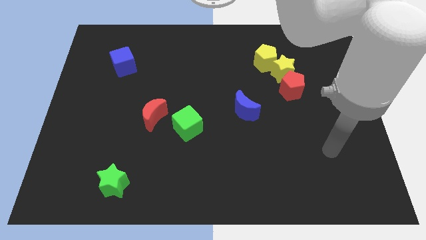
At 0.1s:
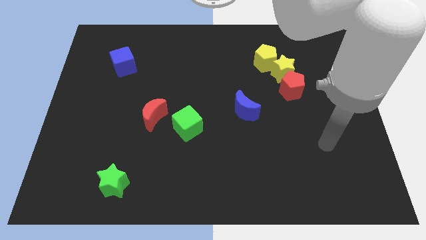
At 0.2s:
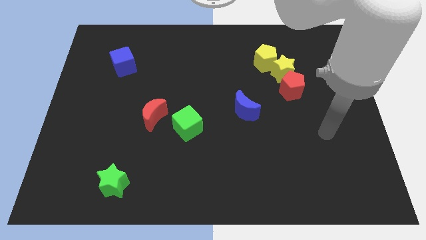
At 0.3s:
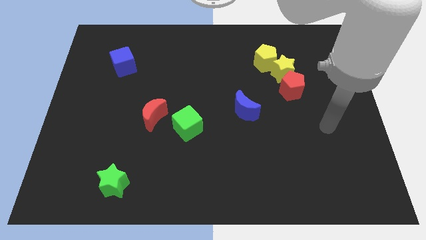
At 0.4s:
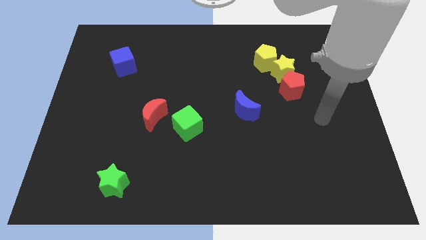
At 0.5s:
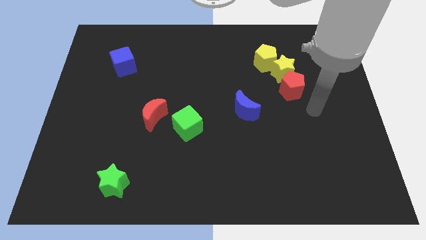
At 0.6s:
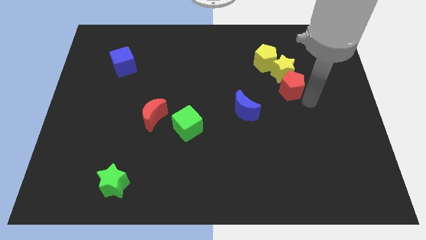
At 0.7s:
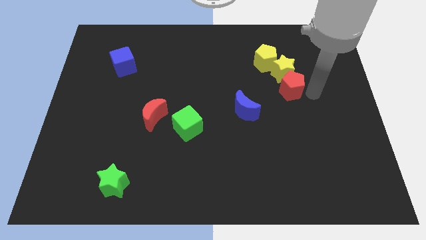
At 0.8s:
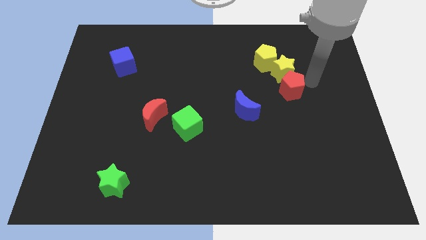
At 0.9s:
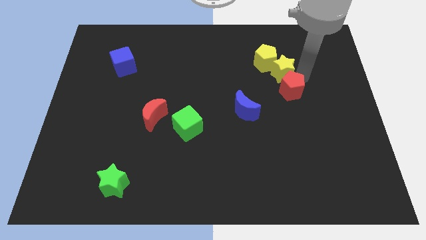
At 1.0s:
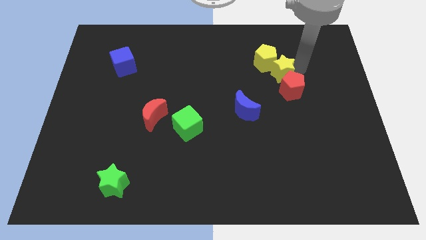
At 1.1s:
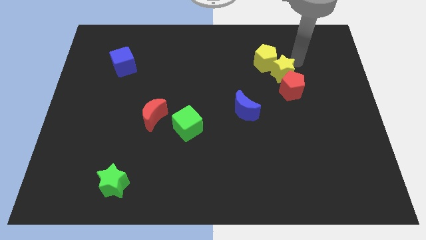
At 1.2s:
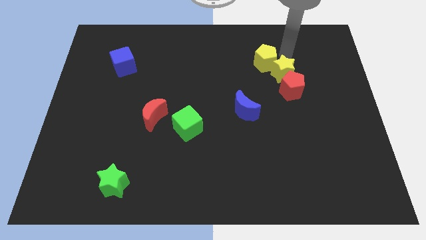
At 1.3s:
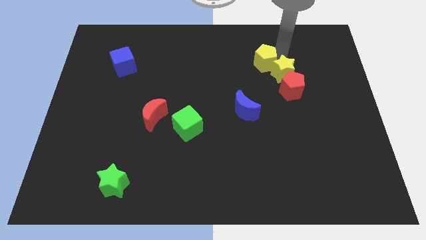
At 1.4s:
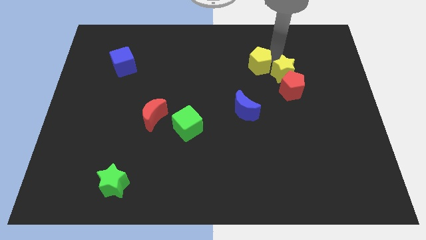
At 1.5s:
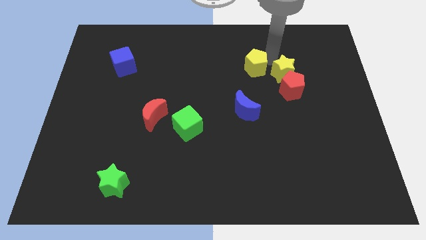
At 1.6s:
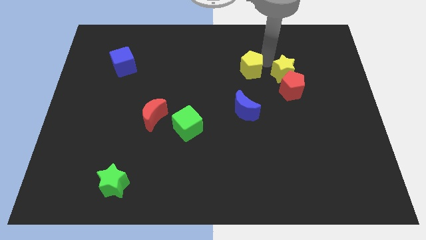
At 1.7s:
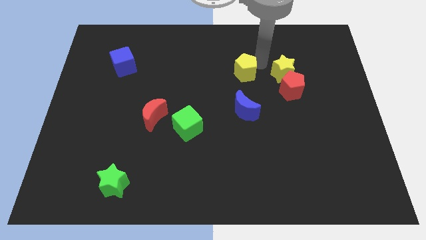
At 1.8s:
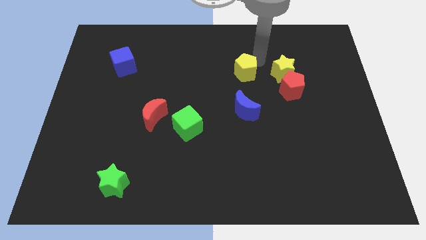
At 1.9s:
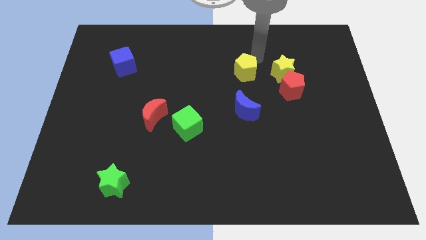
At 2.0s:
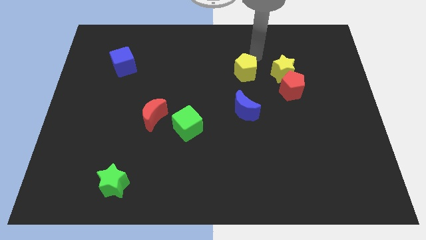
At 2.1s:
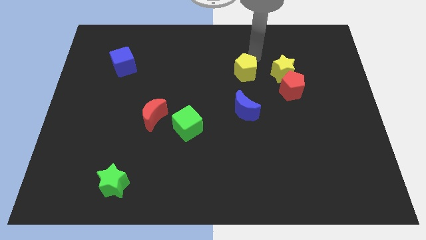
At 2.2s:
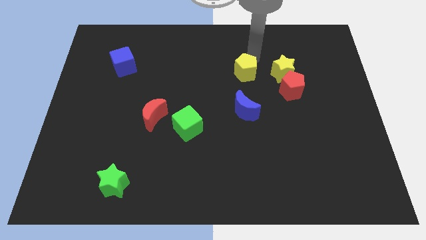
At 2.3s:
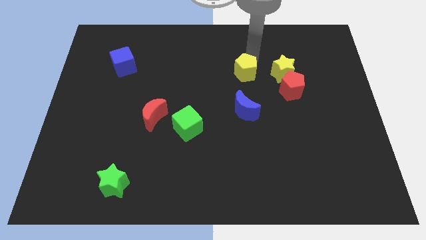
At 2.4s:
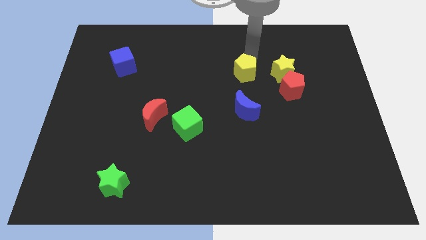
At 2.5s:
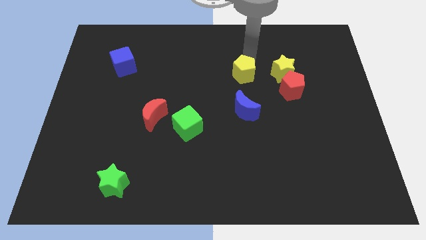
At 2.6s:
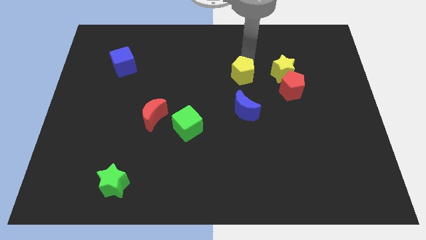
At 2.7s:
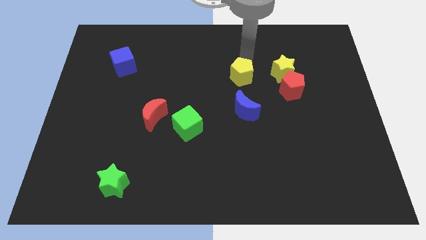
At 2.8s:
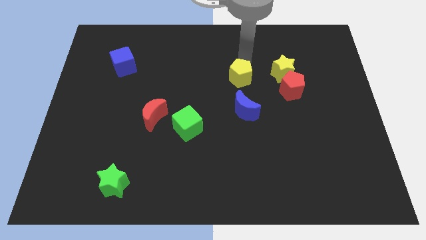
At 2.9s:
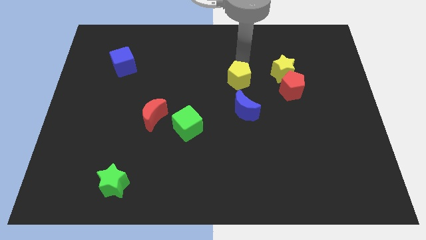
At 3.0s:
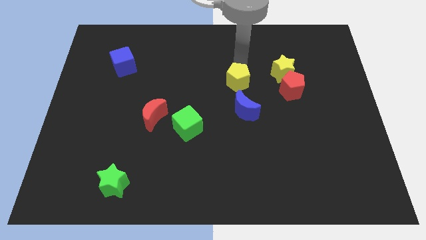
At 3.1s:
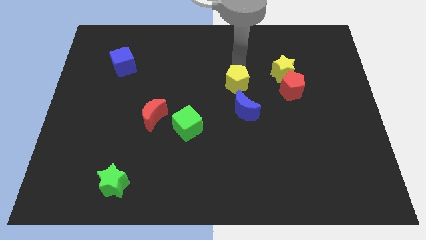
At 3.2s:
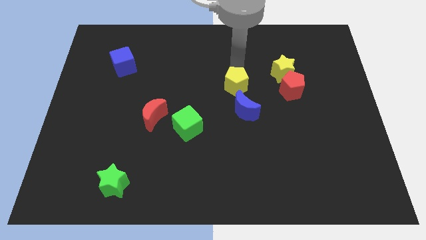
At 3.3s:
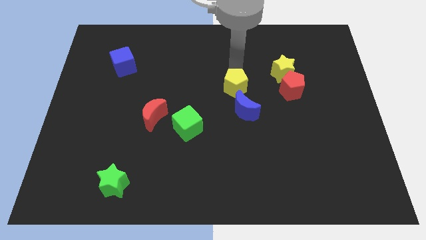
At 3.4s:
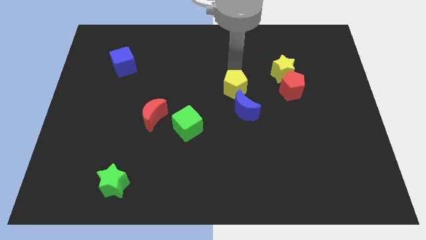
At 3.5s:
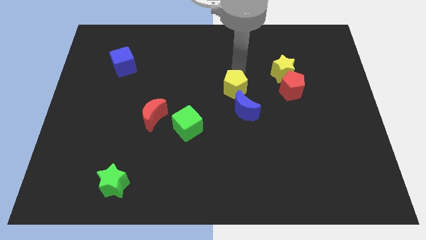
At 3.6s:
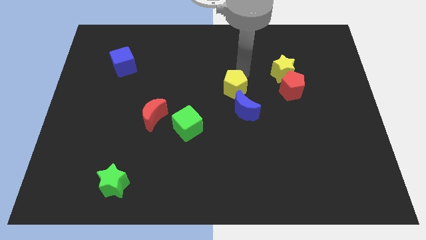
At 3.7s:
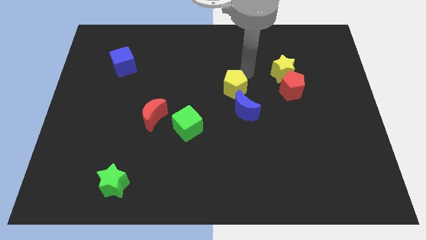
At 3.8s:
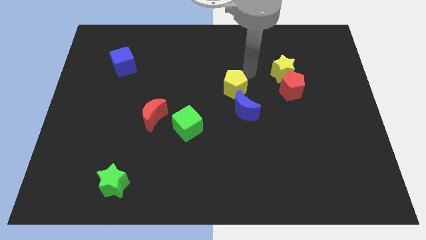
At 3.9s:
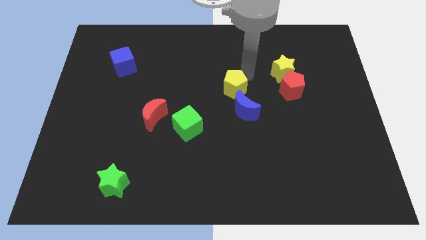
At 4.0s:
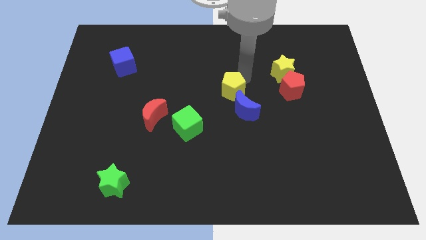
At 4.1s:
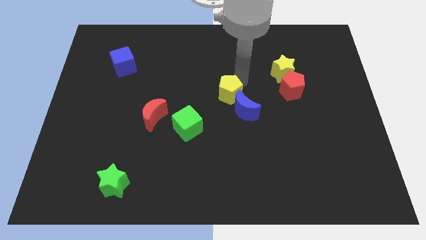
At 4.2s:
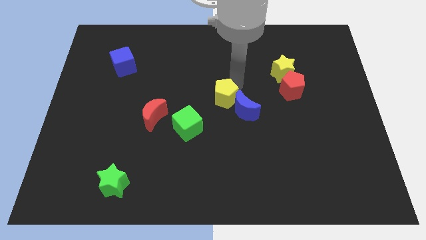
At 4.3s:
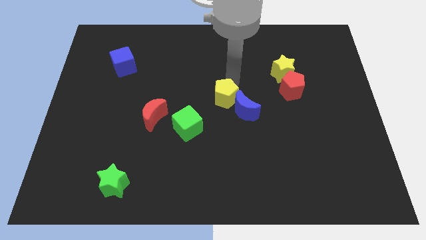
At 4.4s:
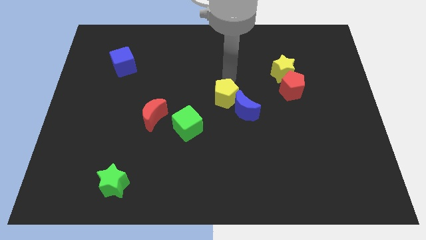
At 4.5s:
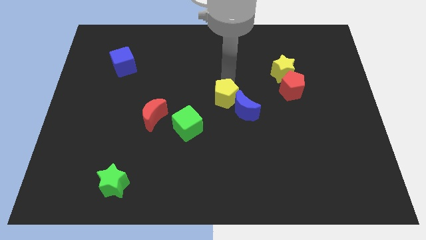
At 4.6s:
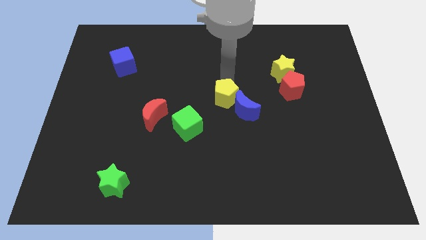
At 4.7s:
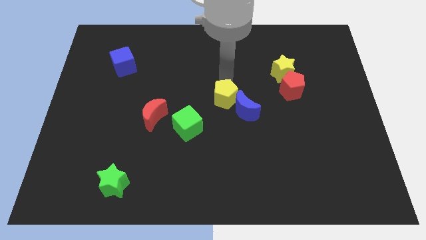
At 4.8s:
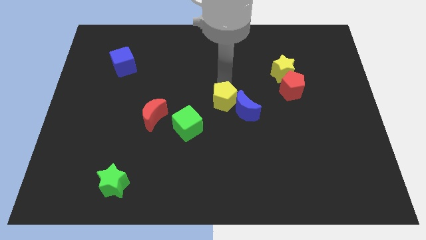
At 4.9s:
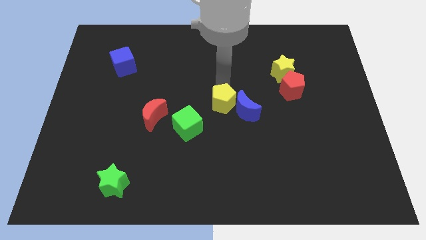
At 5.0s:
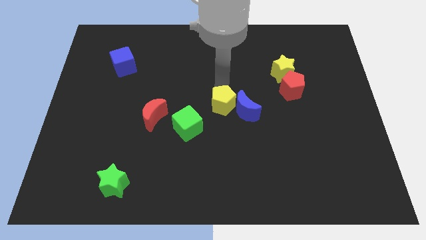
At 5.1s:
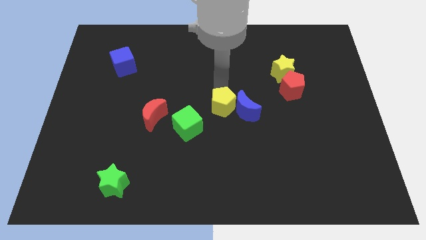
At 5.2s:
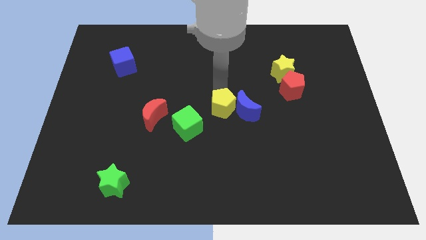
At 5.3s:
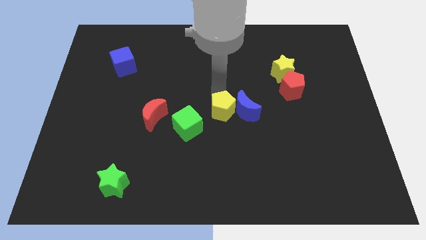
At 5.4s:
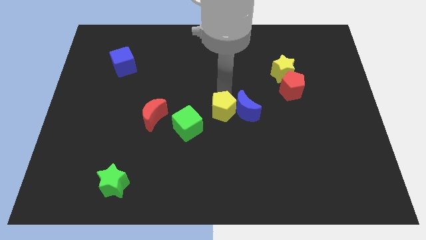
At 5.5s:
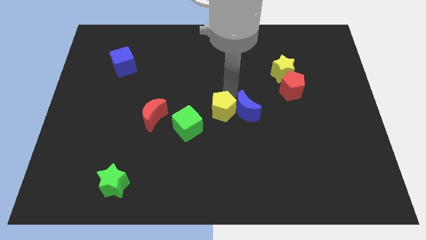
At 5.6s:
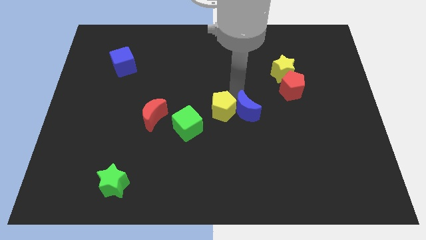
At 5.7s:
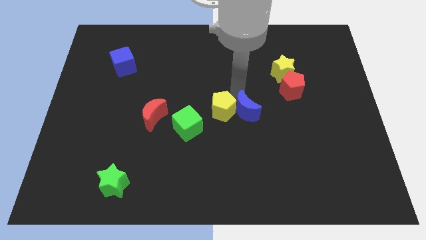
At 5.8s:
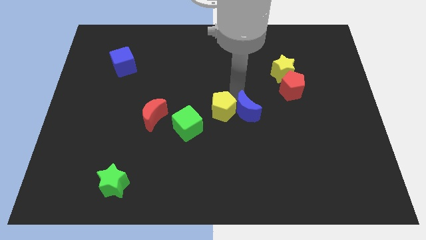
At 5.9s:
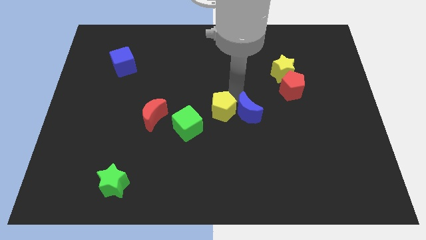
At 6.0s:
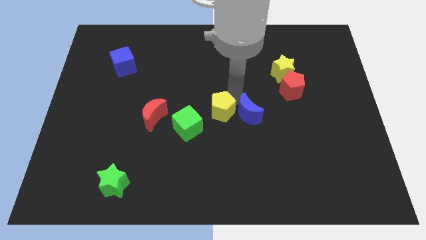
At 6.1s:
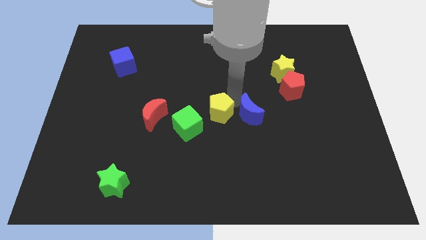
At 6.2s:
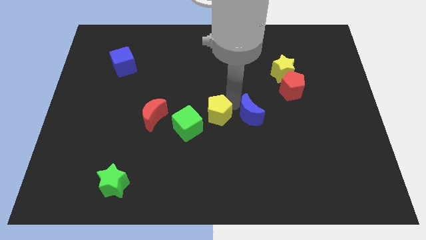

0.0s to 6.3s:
push the yellow pentagon downwards and then to the left

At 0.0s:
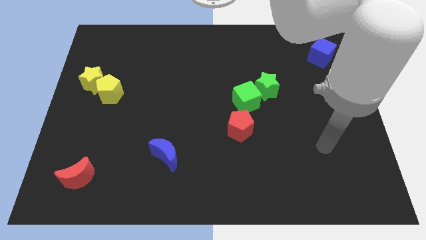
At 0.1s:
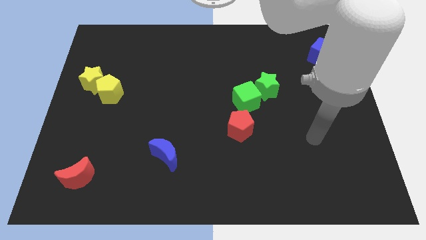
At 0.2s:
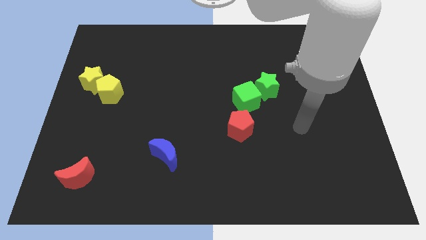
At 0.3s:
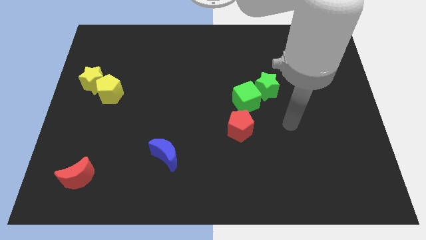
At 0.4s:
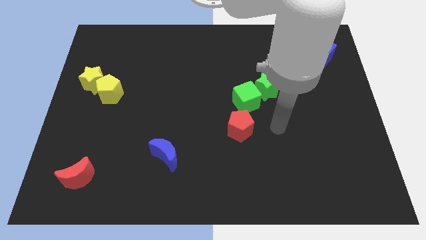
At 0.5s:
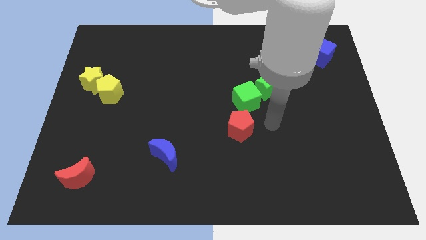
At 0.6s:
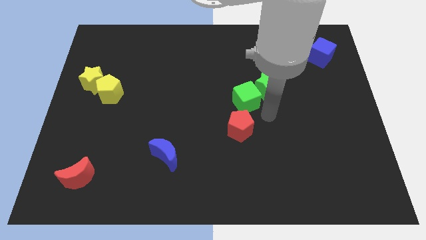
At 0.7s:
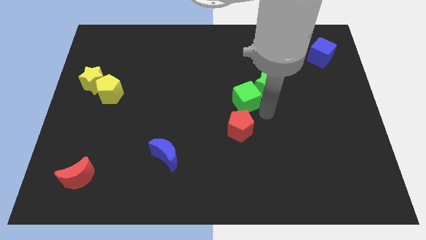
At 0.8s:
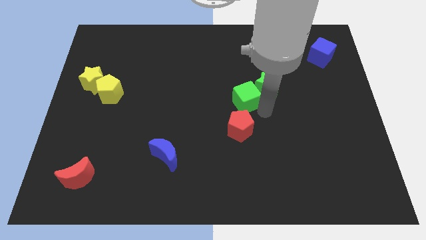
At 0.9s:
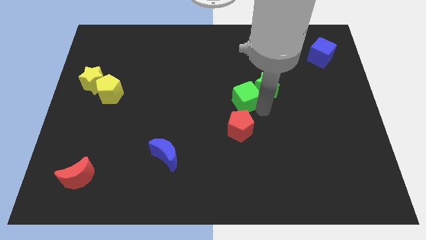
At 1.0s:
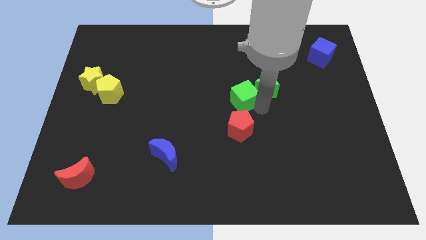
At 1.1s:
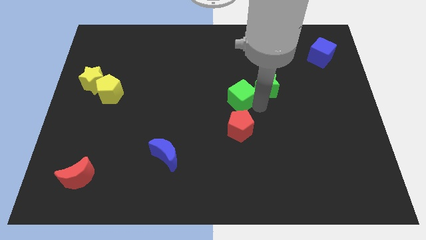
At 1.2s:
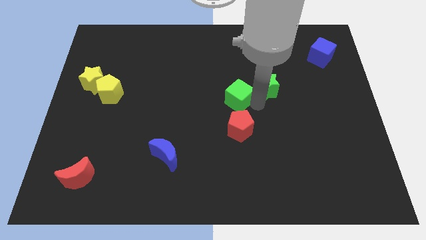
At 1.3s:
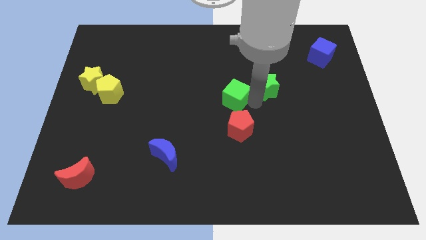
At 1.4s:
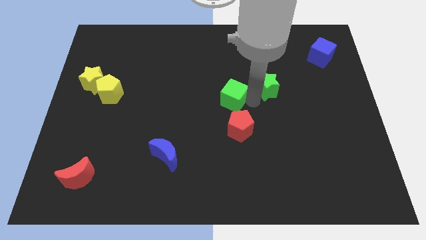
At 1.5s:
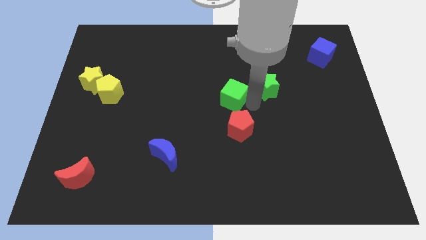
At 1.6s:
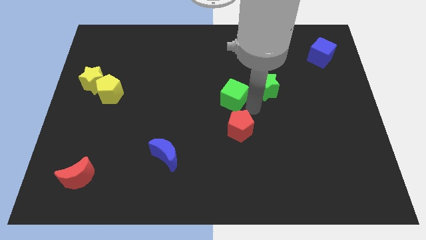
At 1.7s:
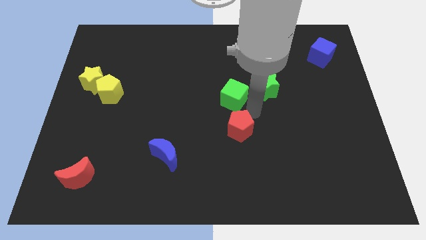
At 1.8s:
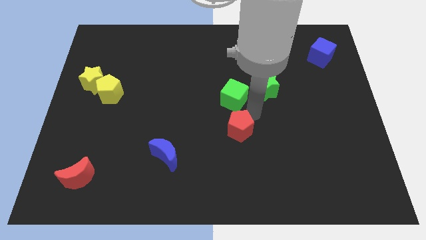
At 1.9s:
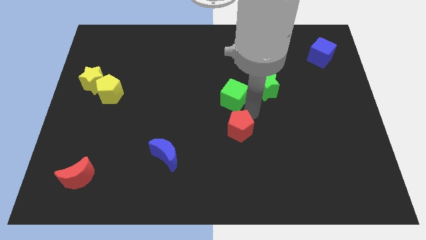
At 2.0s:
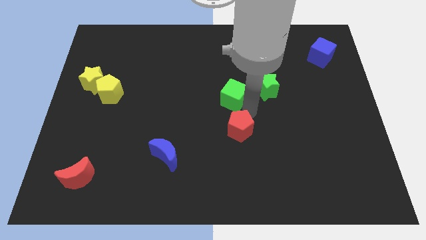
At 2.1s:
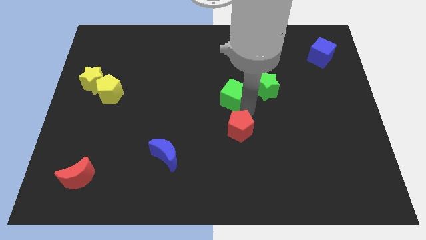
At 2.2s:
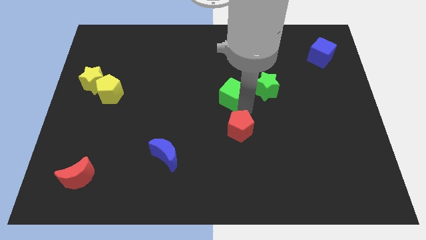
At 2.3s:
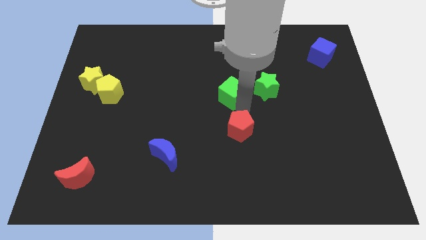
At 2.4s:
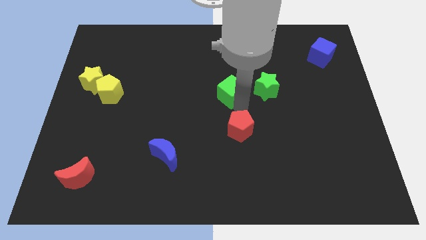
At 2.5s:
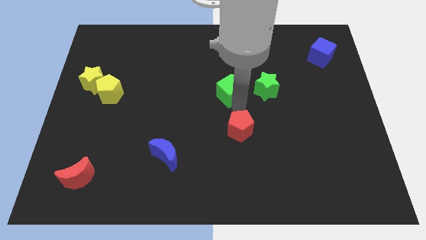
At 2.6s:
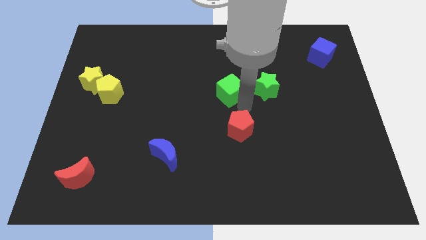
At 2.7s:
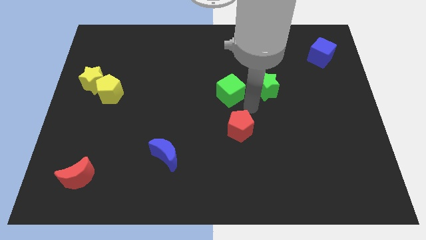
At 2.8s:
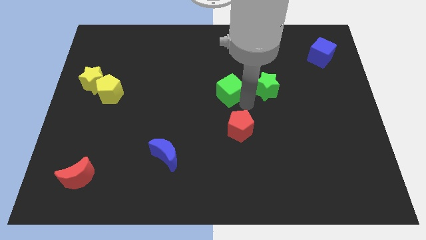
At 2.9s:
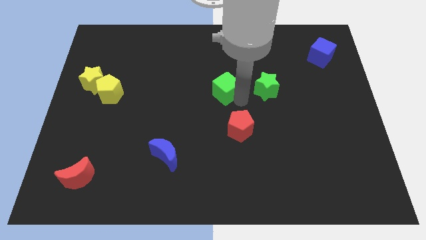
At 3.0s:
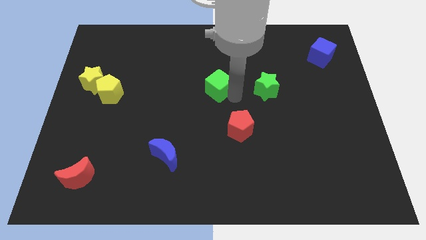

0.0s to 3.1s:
slide the green cube up and left a little
